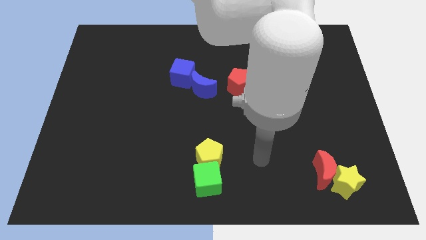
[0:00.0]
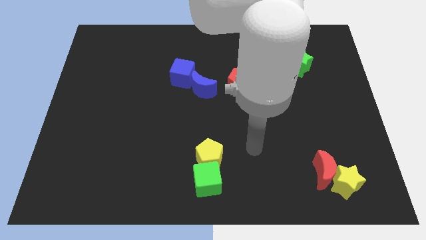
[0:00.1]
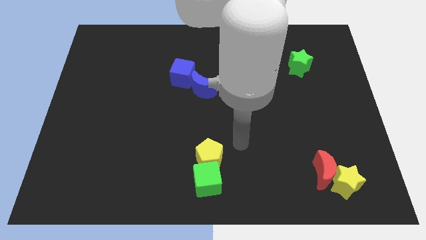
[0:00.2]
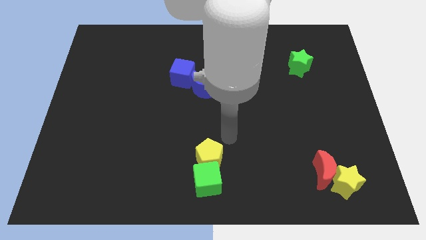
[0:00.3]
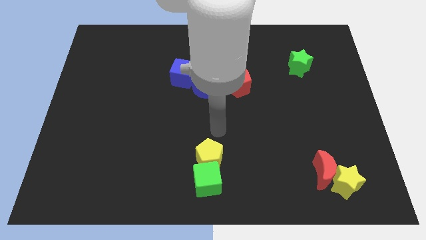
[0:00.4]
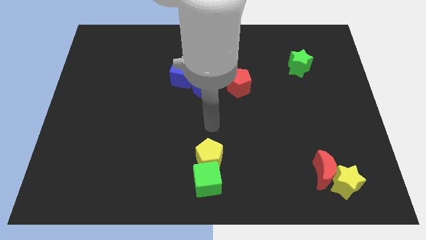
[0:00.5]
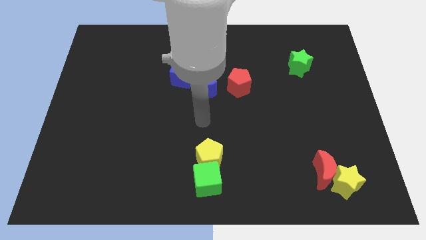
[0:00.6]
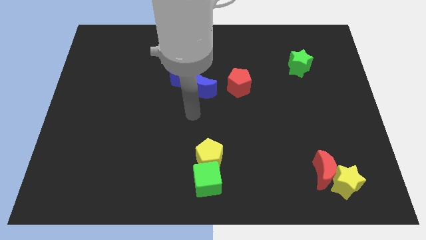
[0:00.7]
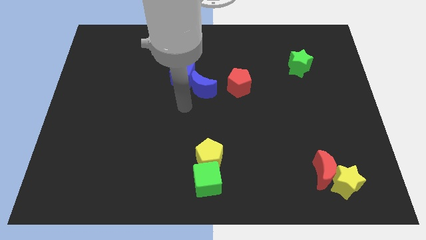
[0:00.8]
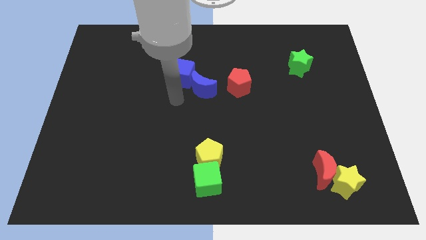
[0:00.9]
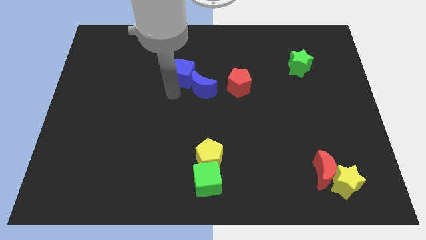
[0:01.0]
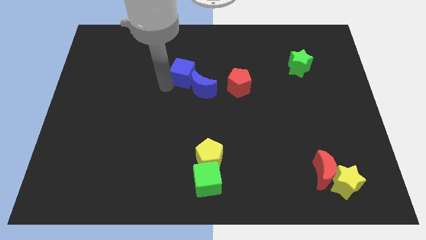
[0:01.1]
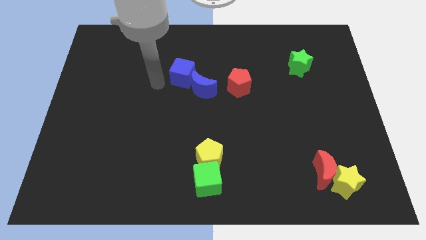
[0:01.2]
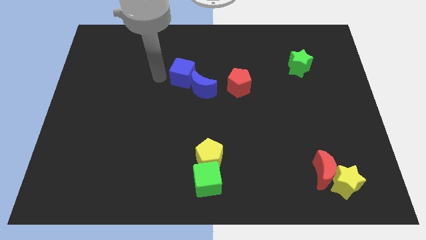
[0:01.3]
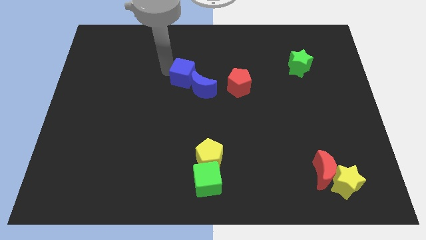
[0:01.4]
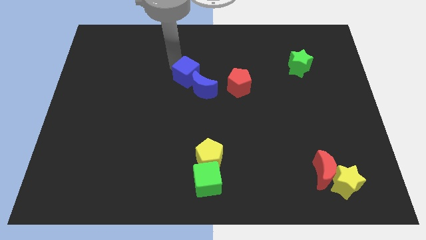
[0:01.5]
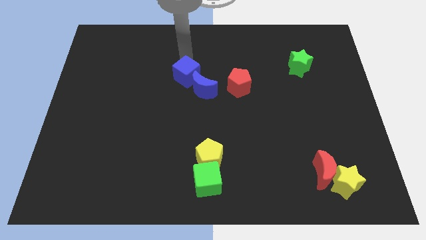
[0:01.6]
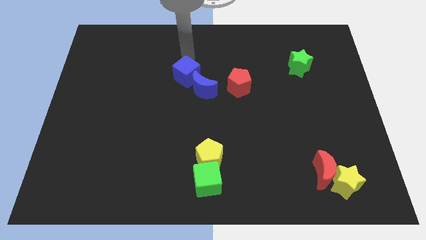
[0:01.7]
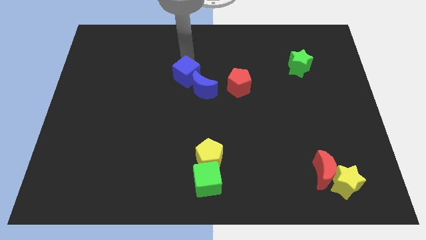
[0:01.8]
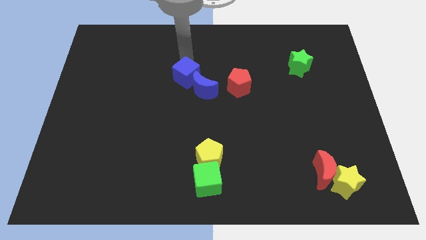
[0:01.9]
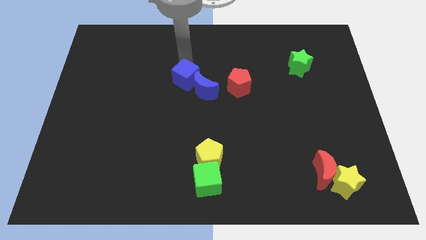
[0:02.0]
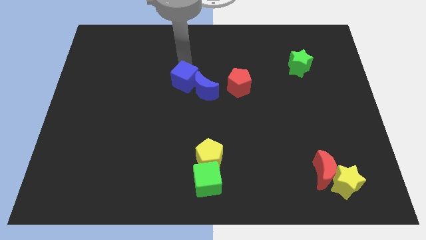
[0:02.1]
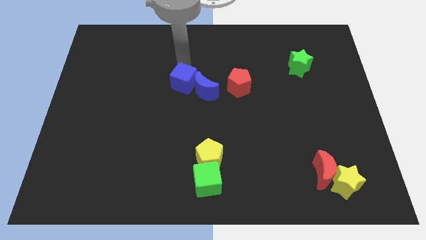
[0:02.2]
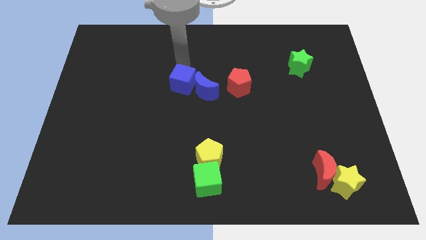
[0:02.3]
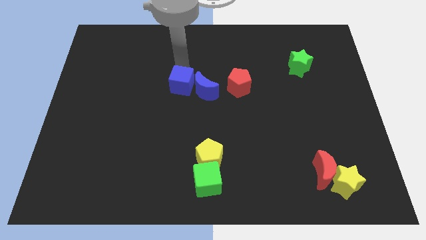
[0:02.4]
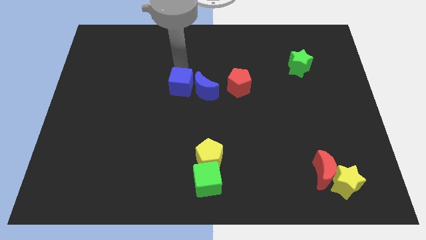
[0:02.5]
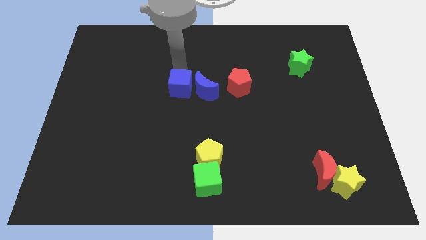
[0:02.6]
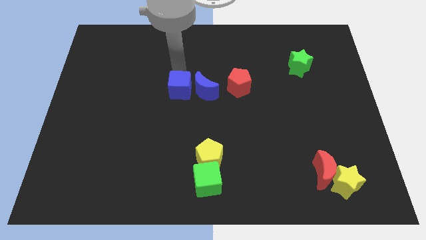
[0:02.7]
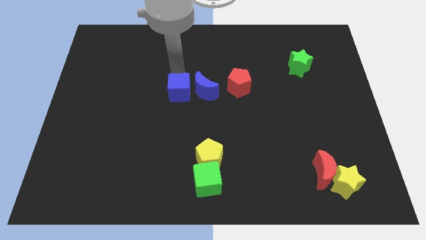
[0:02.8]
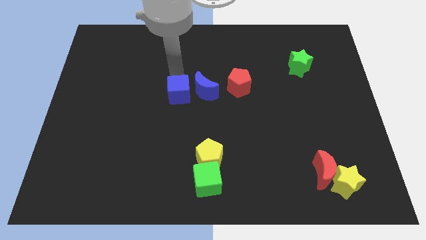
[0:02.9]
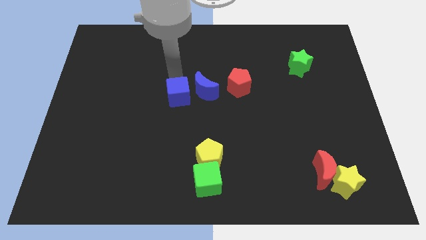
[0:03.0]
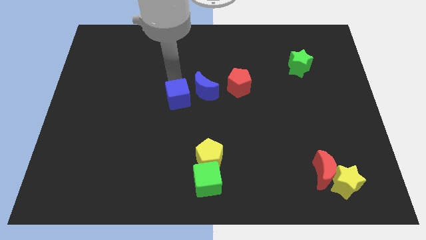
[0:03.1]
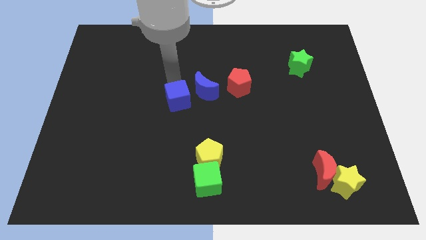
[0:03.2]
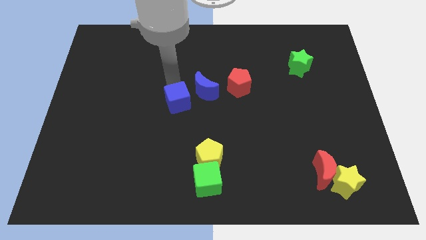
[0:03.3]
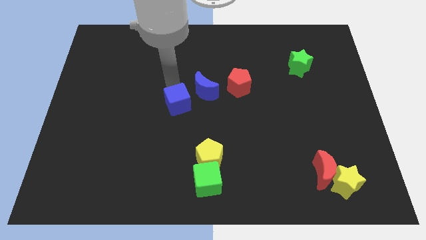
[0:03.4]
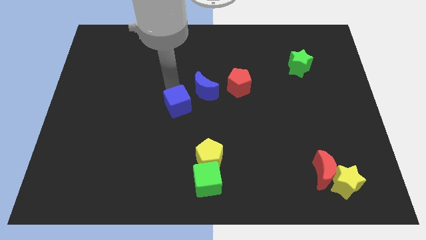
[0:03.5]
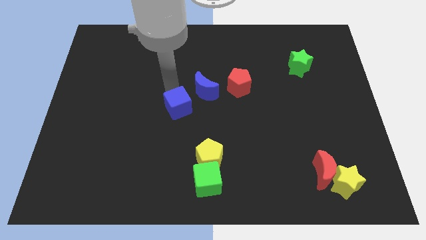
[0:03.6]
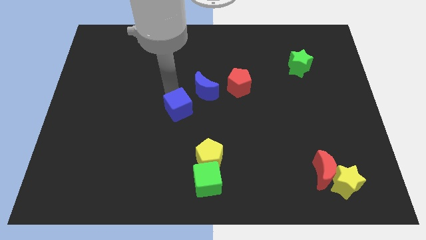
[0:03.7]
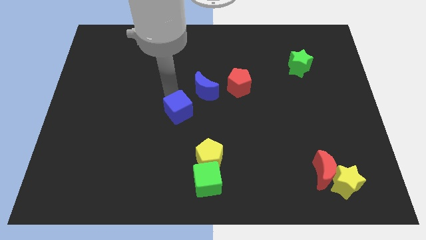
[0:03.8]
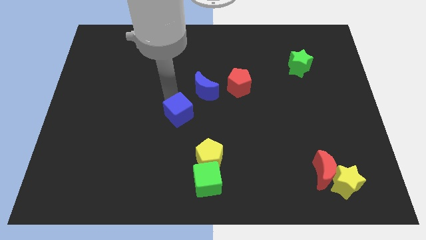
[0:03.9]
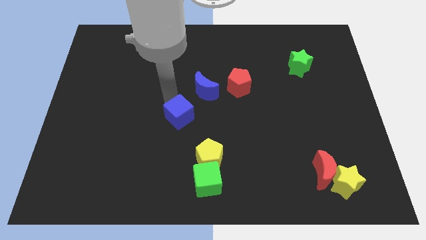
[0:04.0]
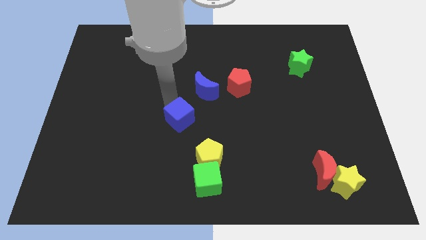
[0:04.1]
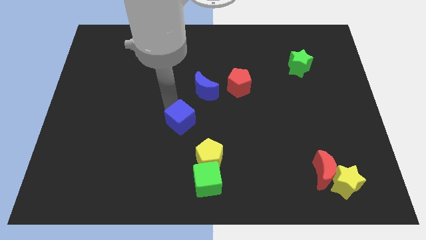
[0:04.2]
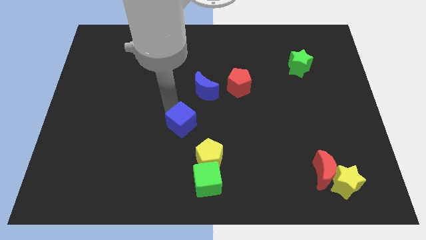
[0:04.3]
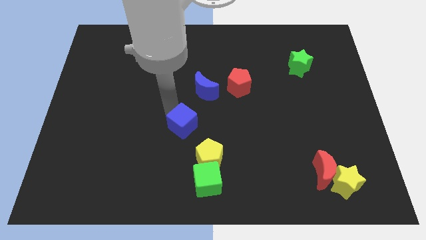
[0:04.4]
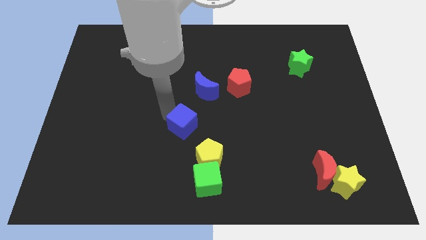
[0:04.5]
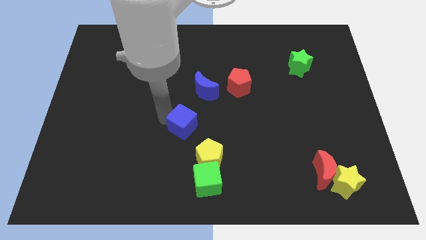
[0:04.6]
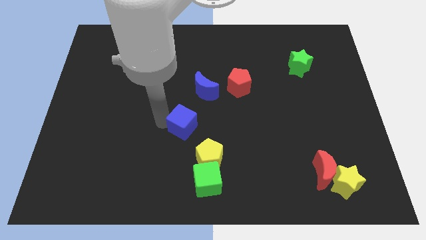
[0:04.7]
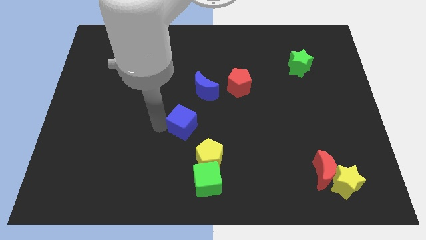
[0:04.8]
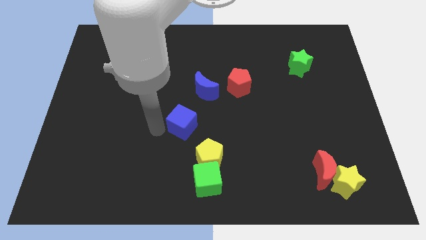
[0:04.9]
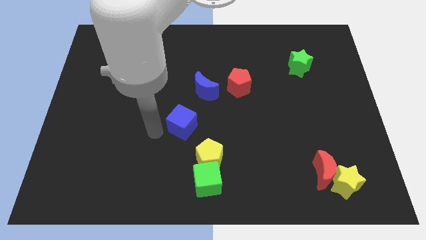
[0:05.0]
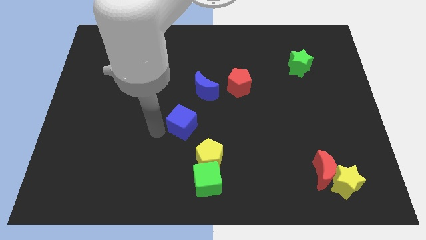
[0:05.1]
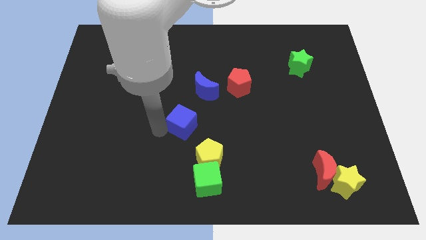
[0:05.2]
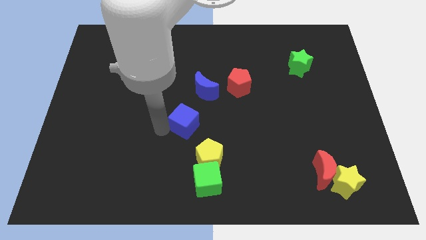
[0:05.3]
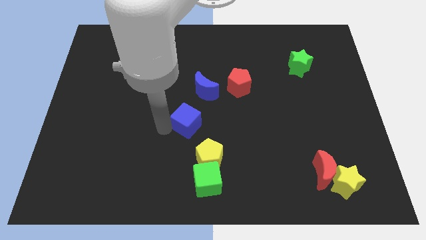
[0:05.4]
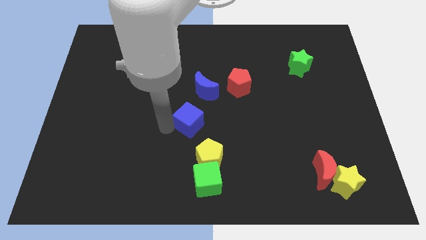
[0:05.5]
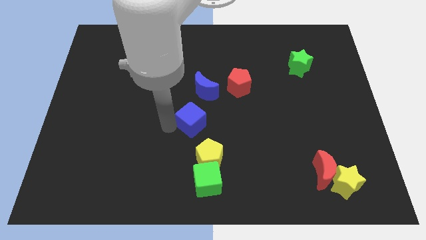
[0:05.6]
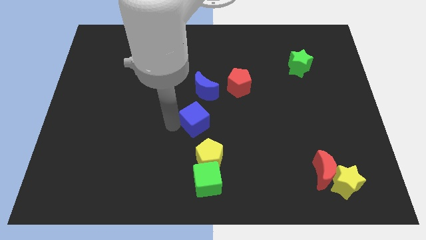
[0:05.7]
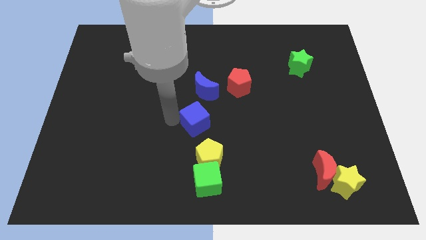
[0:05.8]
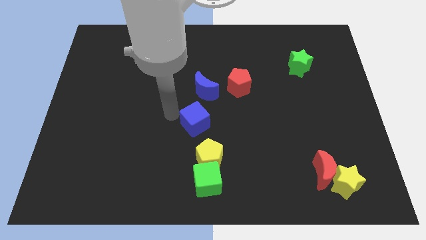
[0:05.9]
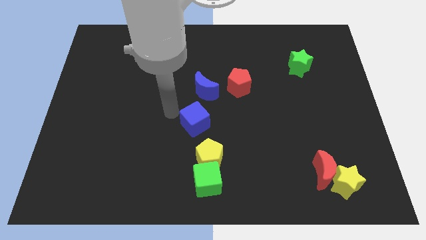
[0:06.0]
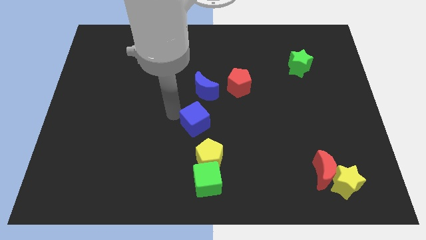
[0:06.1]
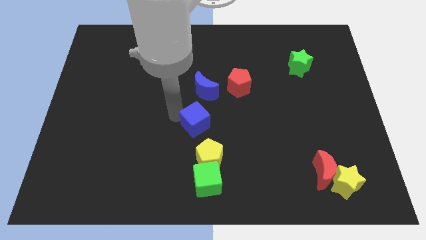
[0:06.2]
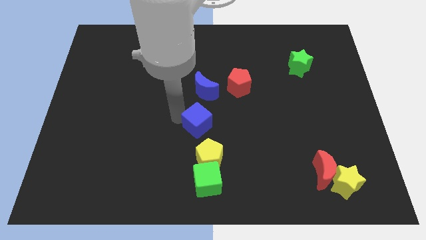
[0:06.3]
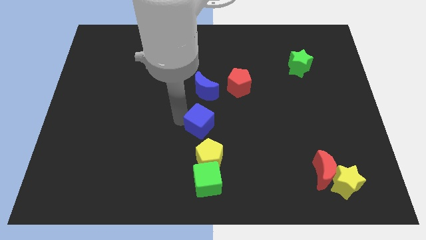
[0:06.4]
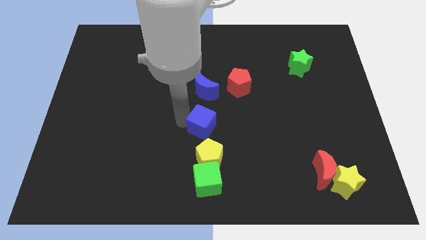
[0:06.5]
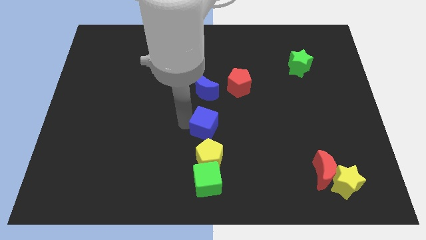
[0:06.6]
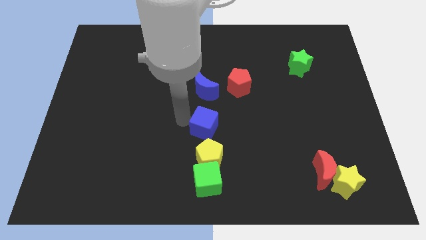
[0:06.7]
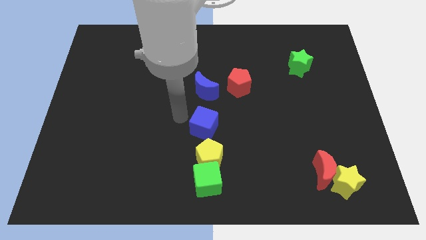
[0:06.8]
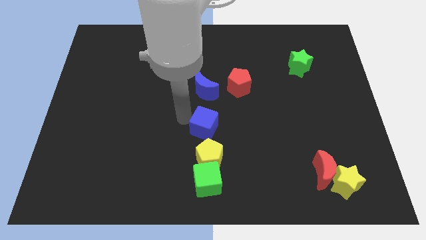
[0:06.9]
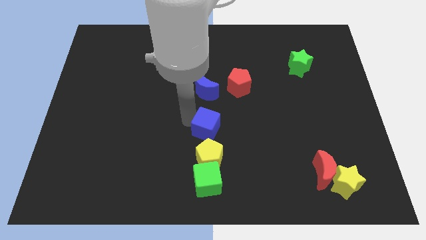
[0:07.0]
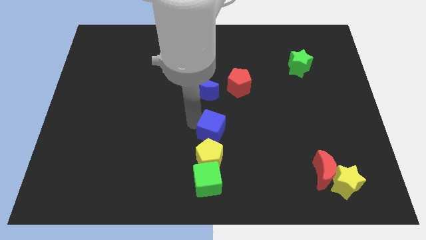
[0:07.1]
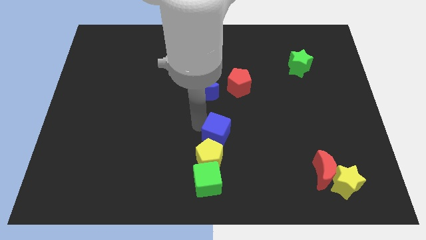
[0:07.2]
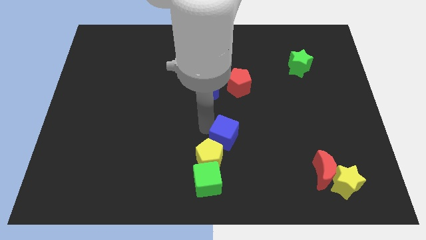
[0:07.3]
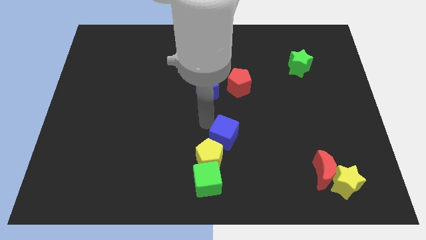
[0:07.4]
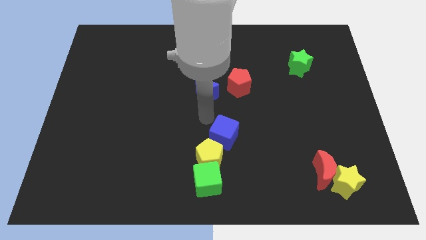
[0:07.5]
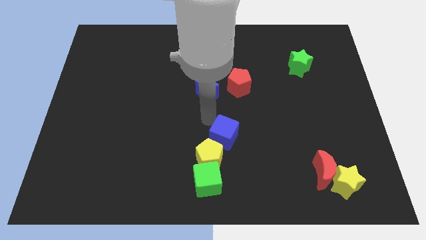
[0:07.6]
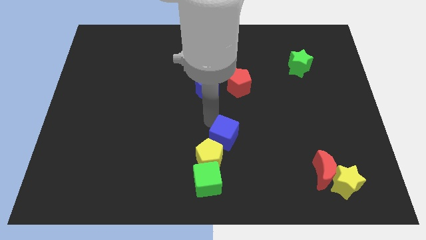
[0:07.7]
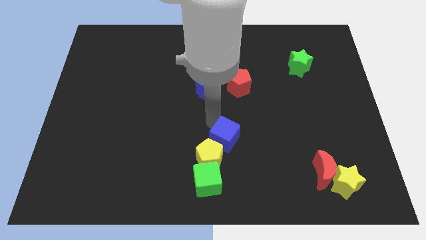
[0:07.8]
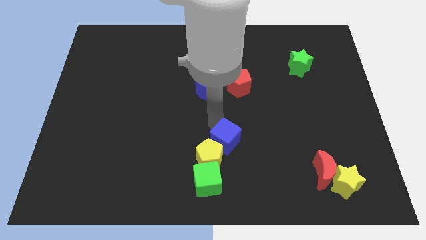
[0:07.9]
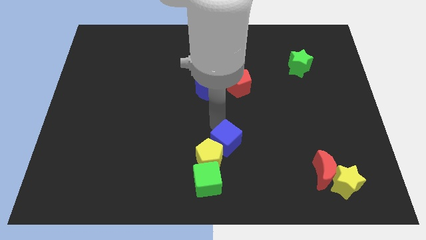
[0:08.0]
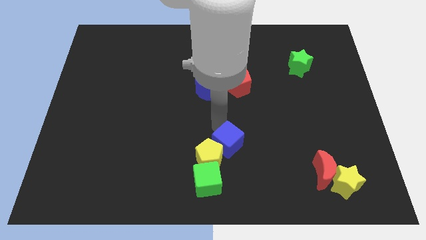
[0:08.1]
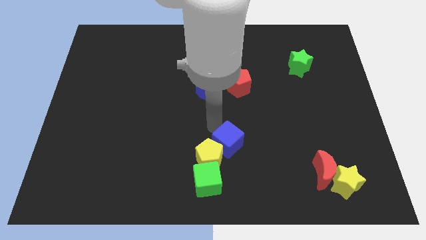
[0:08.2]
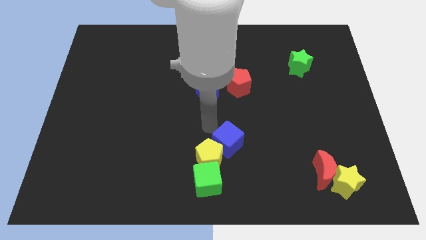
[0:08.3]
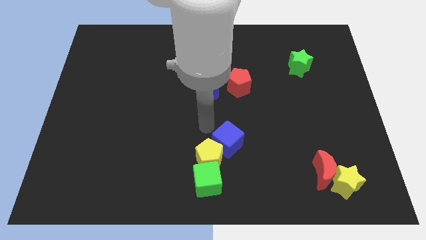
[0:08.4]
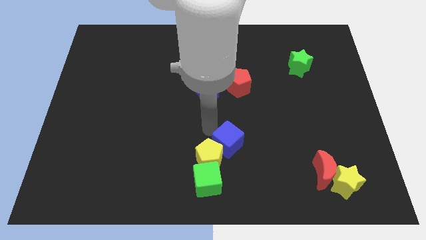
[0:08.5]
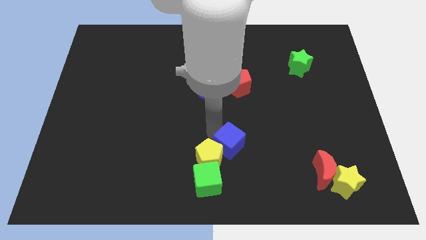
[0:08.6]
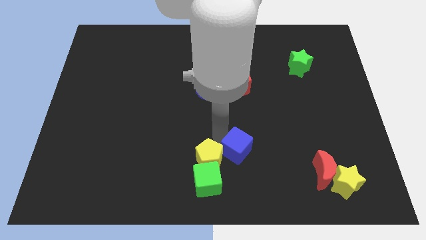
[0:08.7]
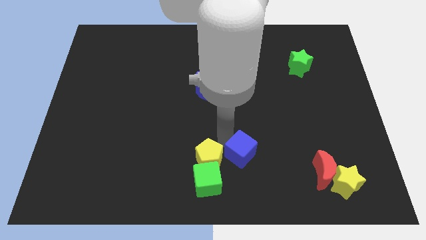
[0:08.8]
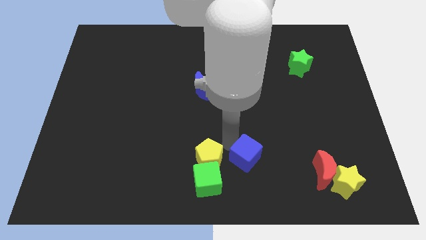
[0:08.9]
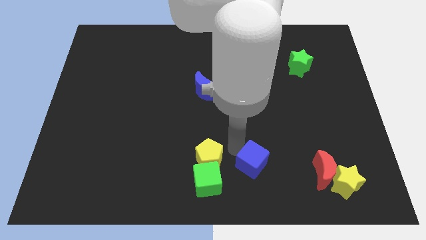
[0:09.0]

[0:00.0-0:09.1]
put the blue cube to the left of the red moon
